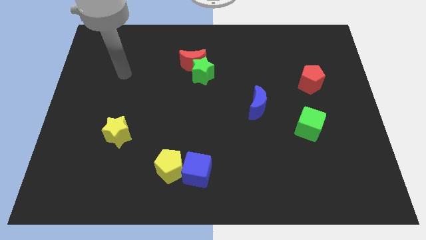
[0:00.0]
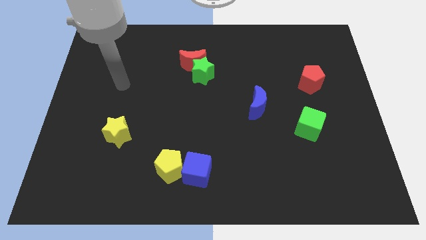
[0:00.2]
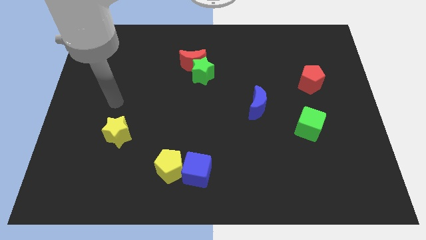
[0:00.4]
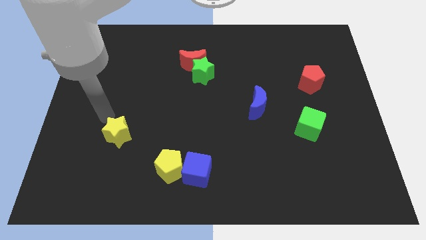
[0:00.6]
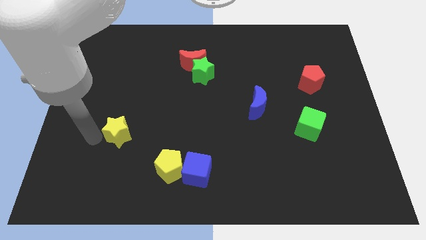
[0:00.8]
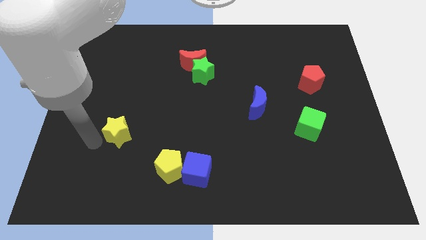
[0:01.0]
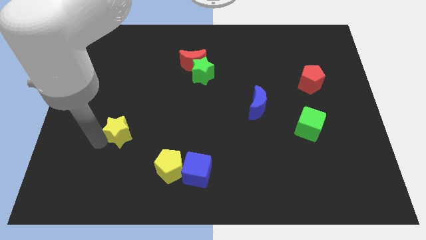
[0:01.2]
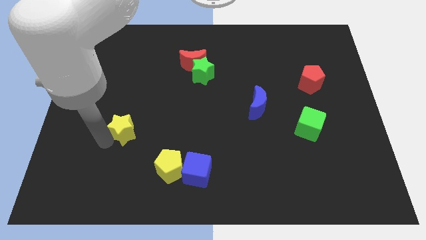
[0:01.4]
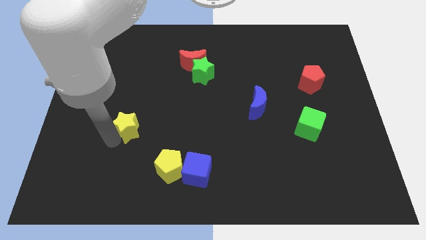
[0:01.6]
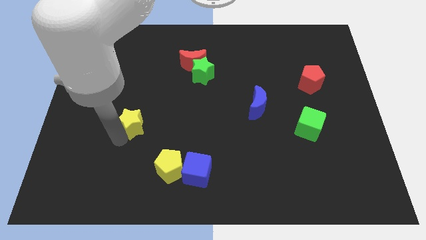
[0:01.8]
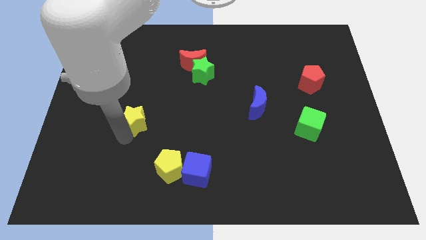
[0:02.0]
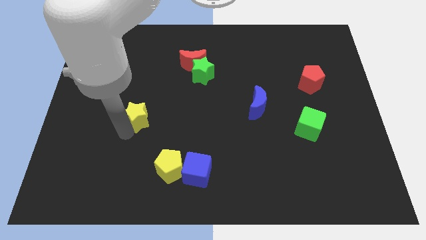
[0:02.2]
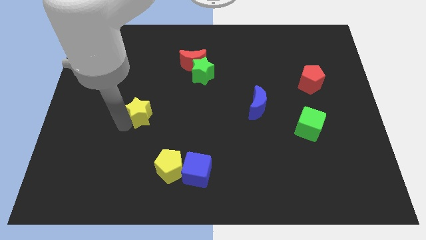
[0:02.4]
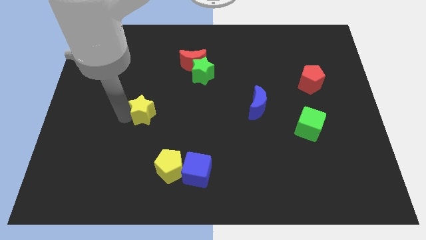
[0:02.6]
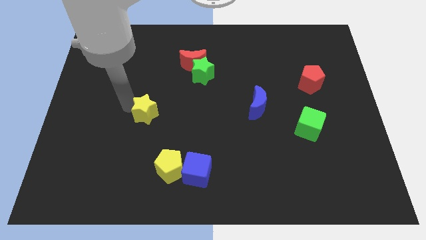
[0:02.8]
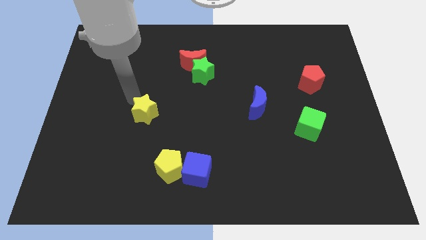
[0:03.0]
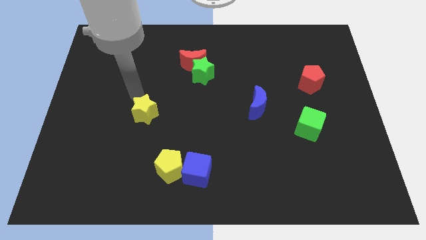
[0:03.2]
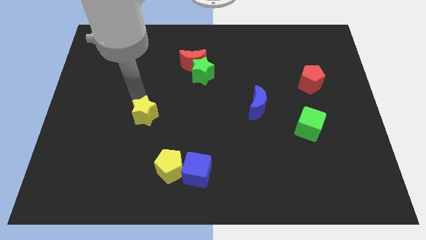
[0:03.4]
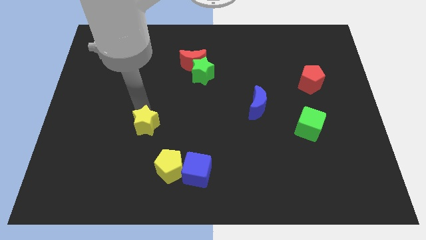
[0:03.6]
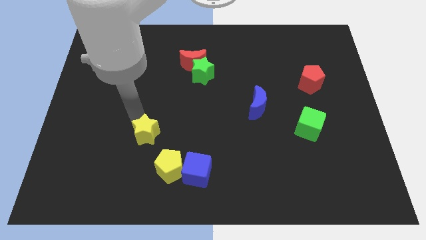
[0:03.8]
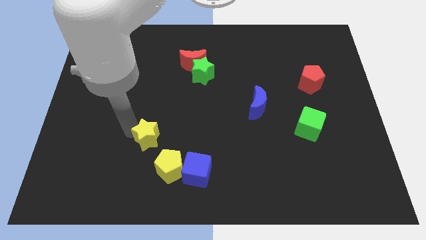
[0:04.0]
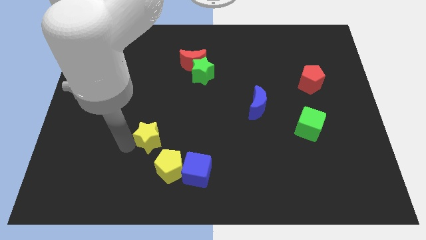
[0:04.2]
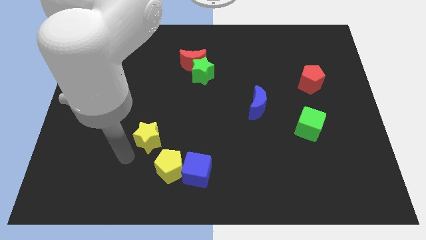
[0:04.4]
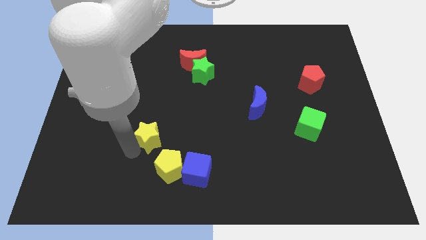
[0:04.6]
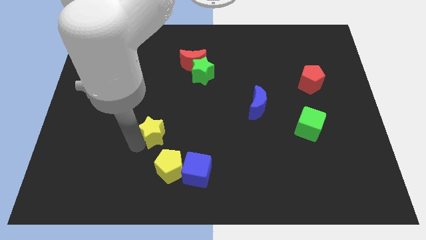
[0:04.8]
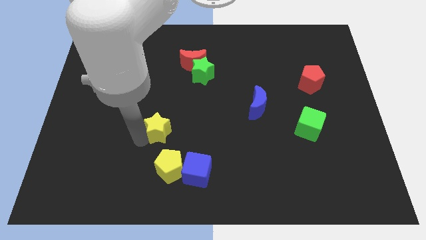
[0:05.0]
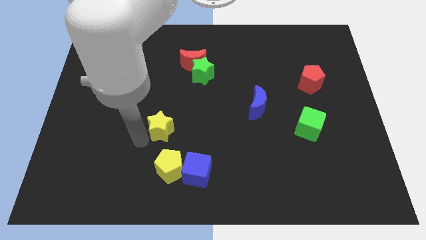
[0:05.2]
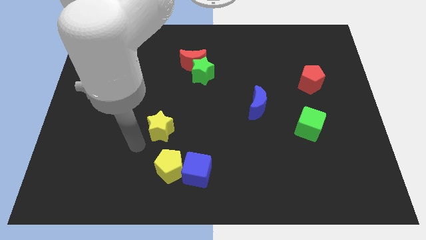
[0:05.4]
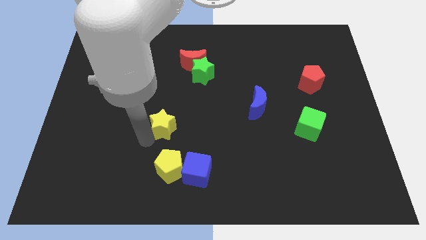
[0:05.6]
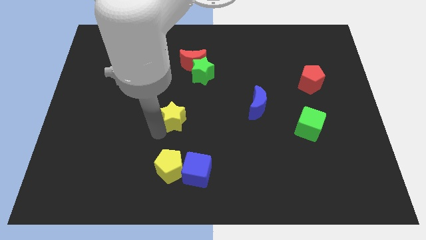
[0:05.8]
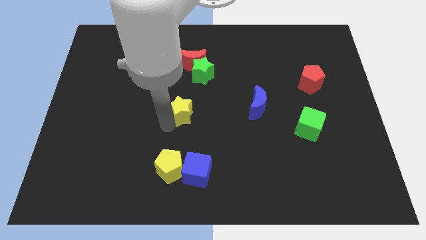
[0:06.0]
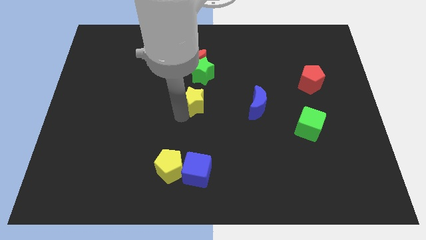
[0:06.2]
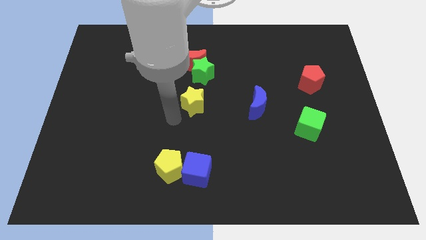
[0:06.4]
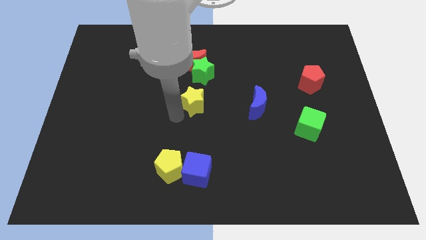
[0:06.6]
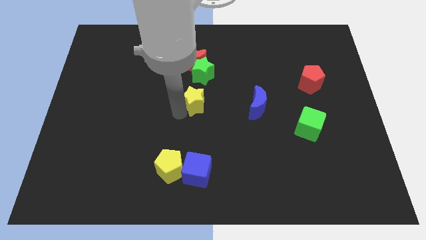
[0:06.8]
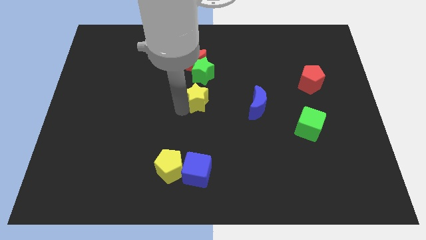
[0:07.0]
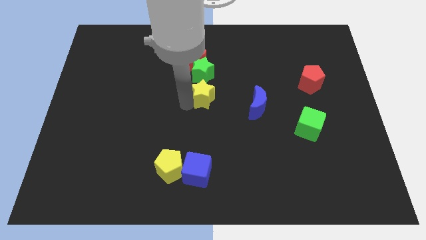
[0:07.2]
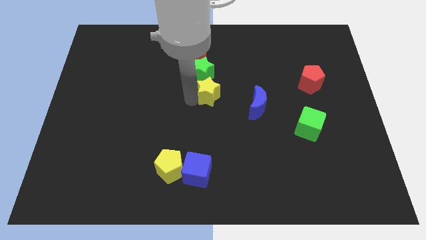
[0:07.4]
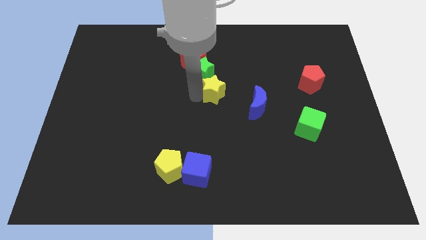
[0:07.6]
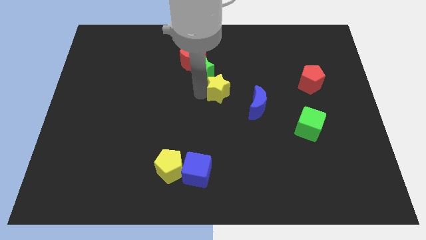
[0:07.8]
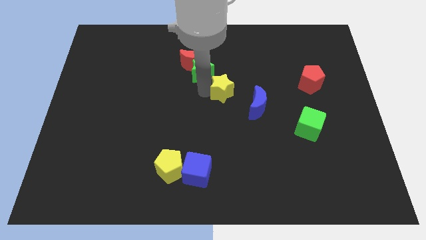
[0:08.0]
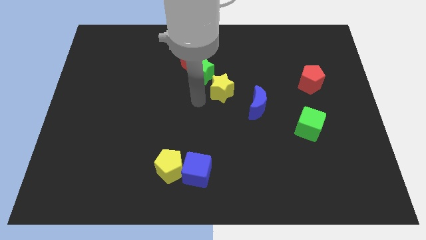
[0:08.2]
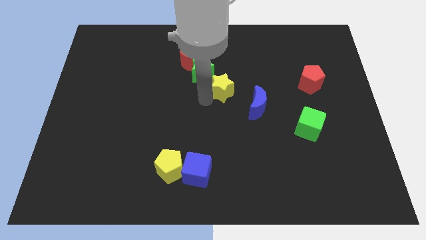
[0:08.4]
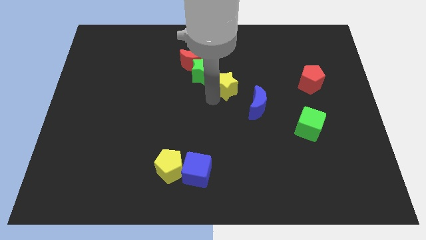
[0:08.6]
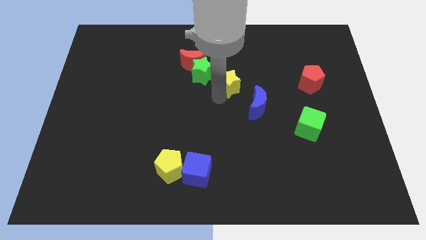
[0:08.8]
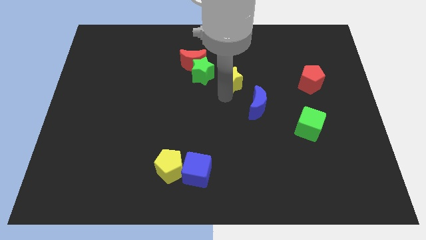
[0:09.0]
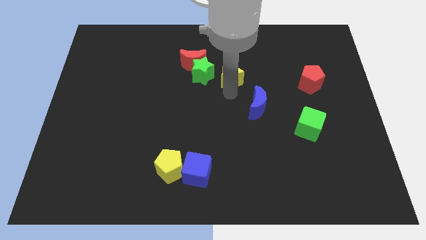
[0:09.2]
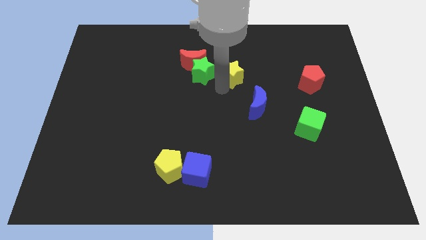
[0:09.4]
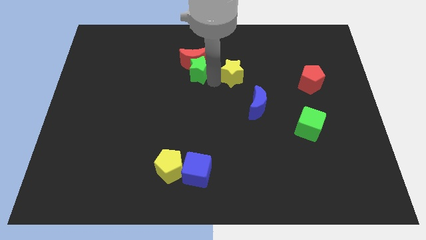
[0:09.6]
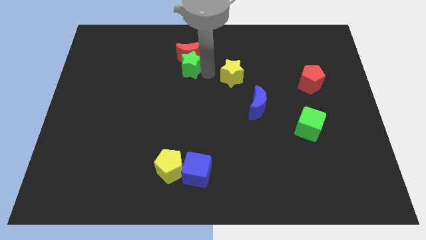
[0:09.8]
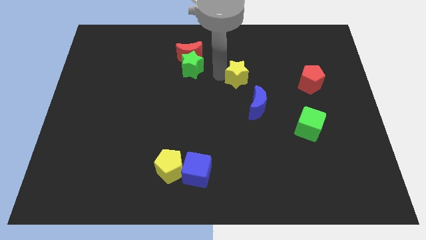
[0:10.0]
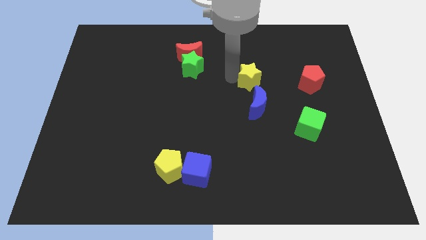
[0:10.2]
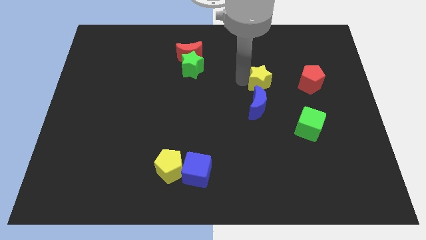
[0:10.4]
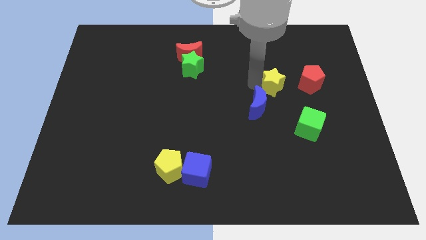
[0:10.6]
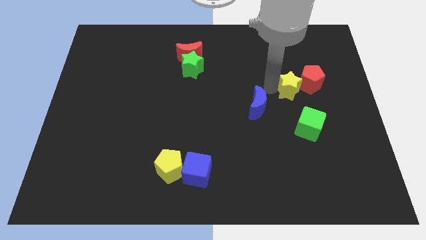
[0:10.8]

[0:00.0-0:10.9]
move the yellow star to the red pentagon

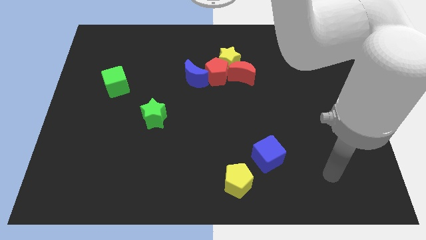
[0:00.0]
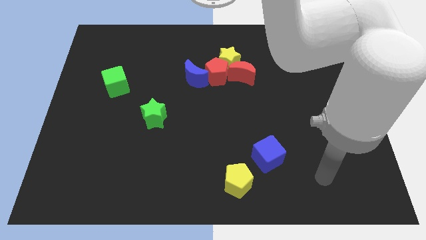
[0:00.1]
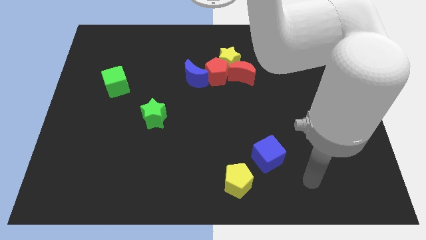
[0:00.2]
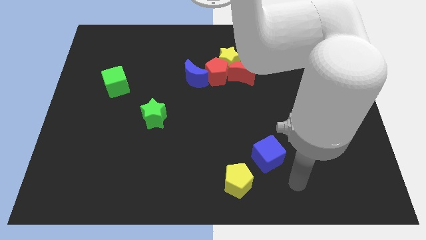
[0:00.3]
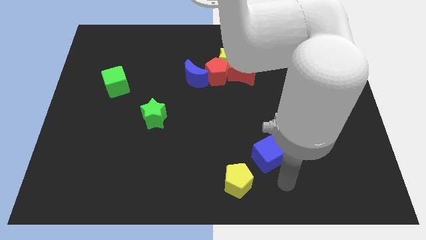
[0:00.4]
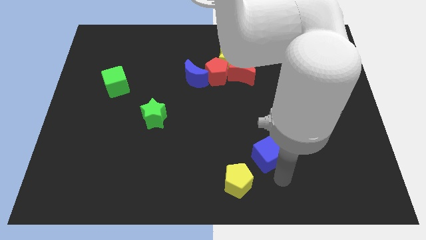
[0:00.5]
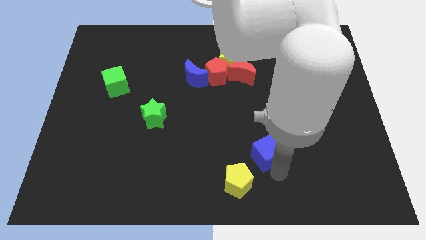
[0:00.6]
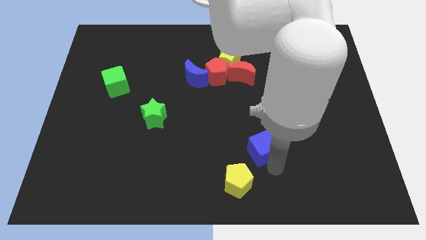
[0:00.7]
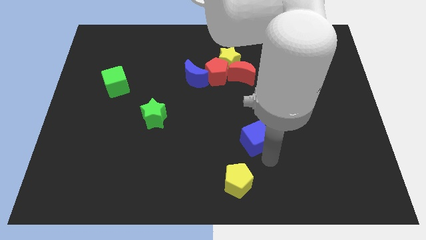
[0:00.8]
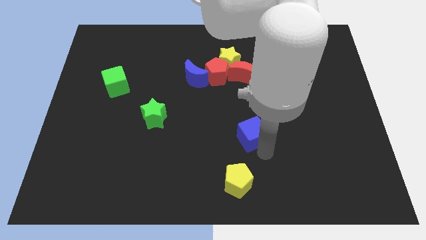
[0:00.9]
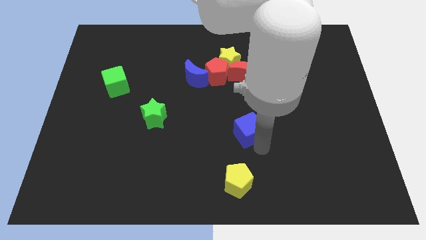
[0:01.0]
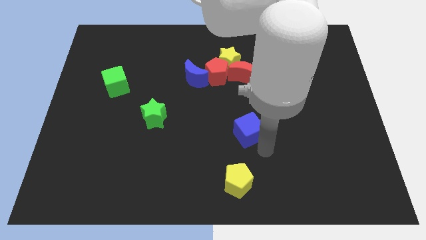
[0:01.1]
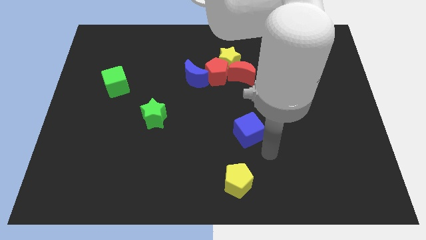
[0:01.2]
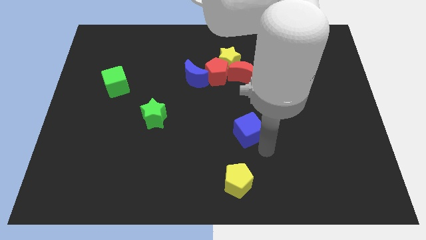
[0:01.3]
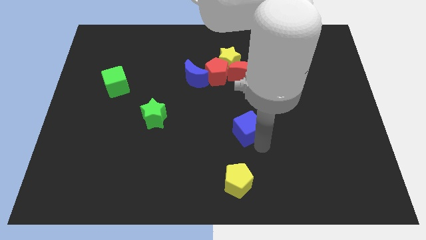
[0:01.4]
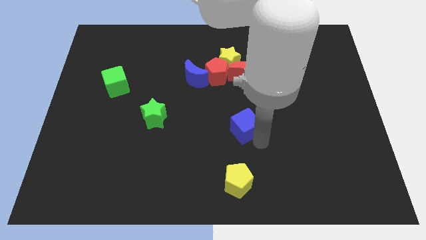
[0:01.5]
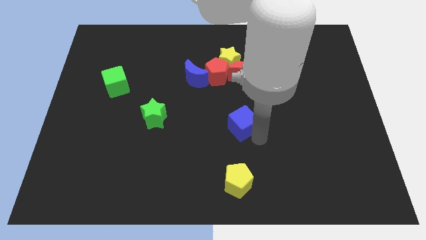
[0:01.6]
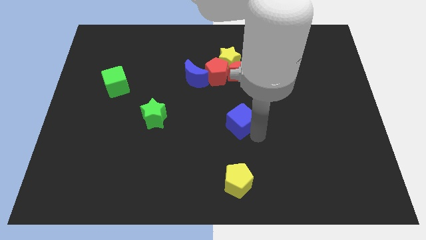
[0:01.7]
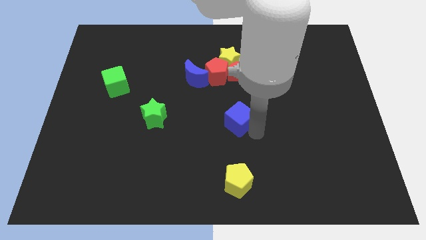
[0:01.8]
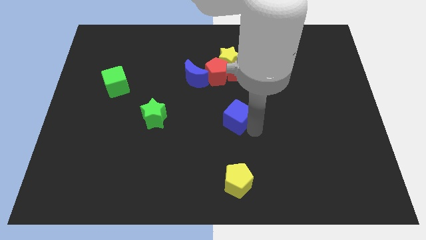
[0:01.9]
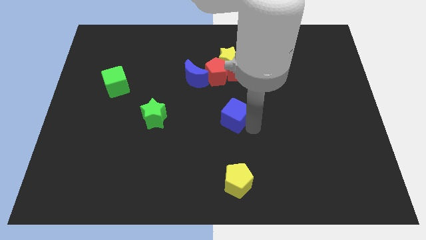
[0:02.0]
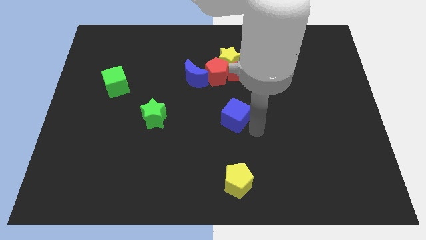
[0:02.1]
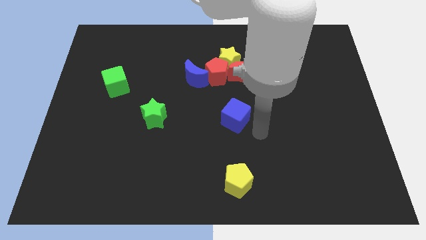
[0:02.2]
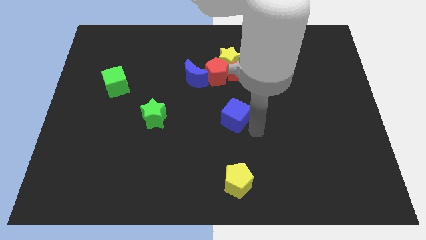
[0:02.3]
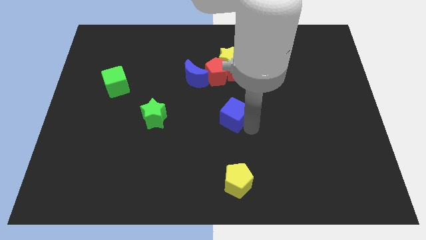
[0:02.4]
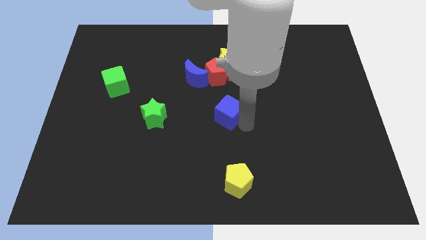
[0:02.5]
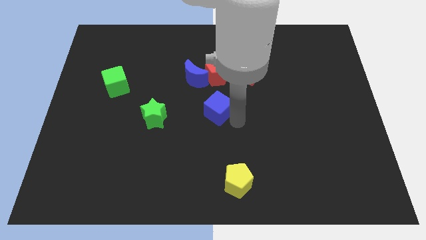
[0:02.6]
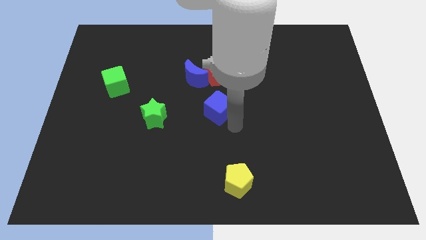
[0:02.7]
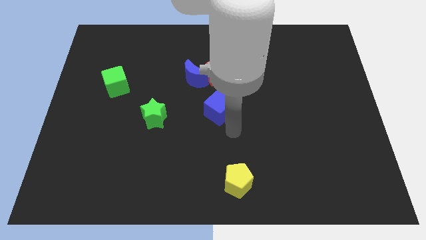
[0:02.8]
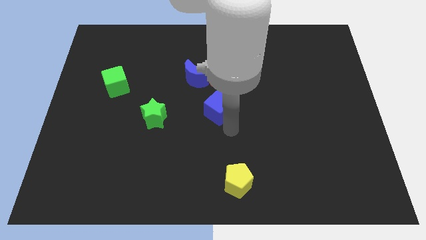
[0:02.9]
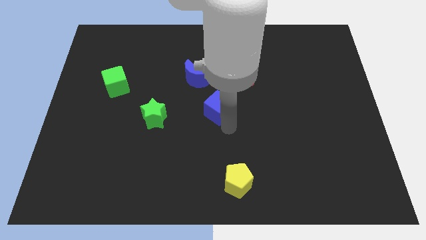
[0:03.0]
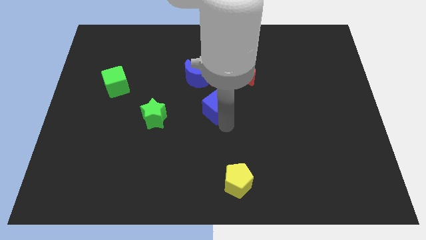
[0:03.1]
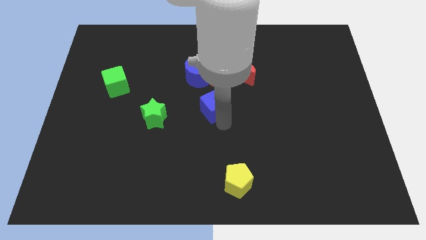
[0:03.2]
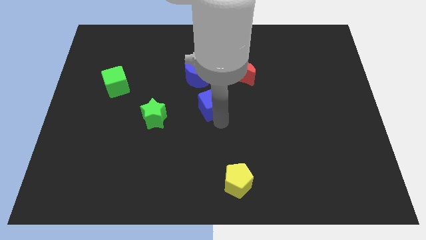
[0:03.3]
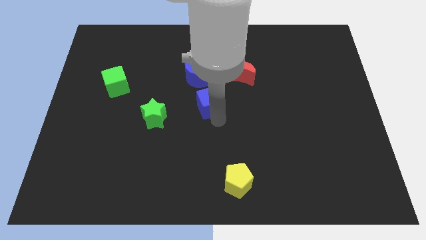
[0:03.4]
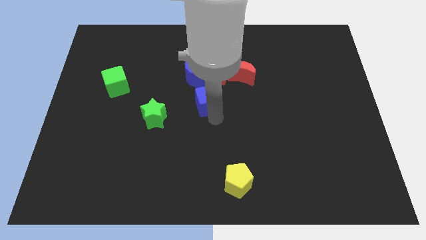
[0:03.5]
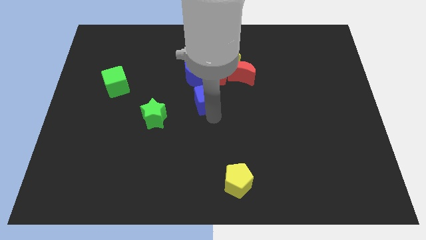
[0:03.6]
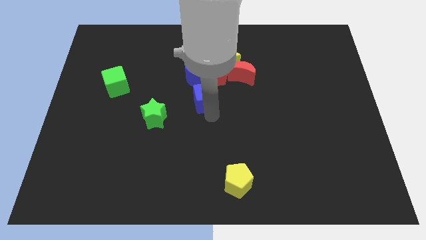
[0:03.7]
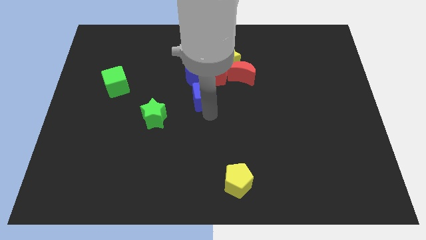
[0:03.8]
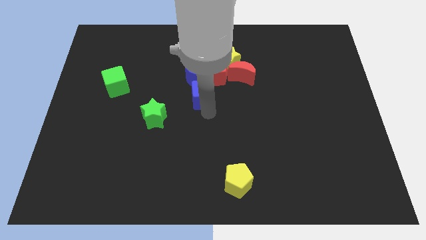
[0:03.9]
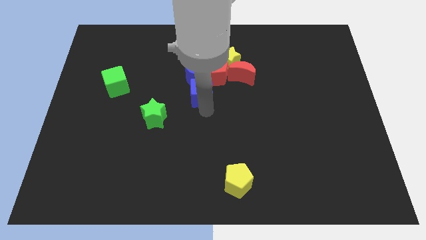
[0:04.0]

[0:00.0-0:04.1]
put the blue cube next to the blue moon
